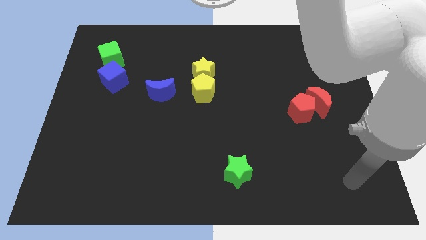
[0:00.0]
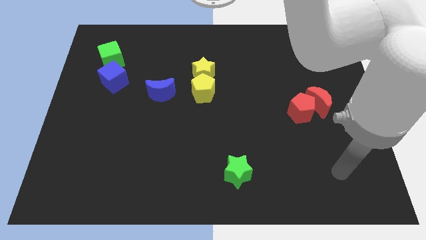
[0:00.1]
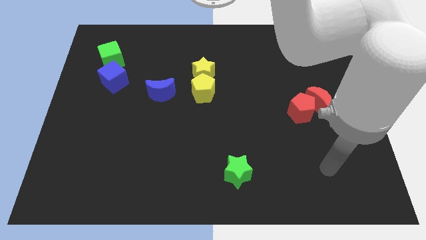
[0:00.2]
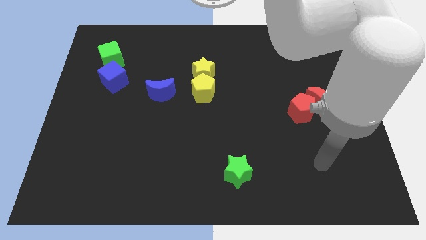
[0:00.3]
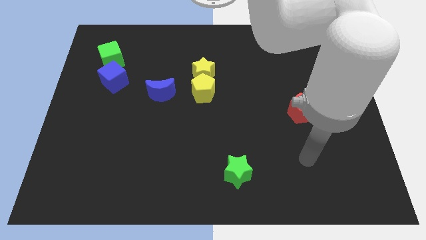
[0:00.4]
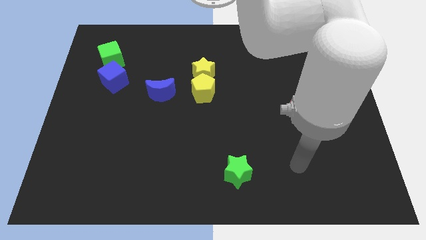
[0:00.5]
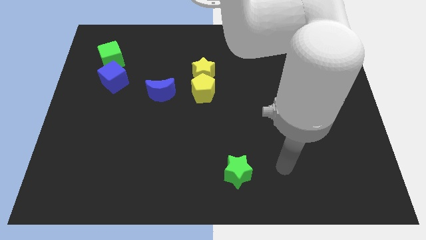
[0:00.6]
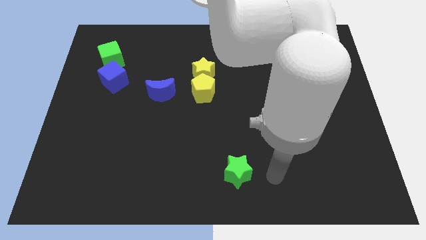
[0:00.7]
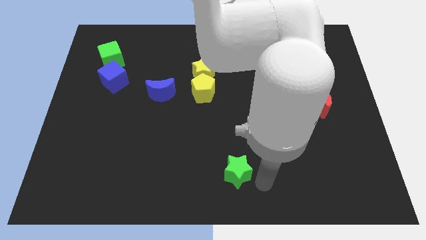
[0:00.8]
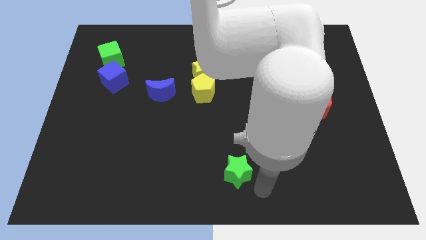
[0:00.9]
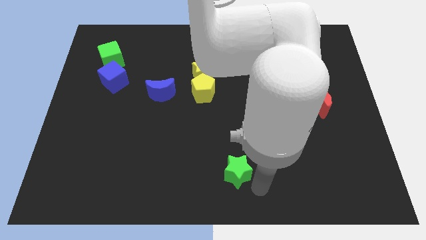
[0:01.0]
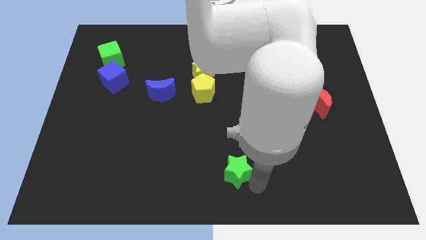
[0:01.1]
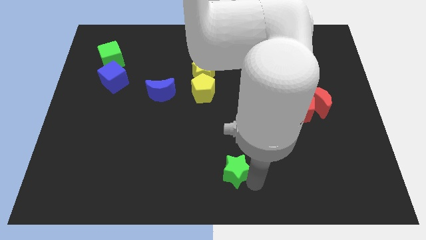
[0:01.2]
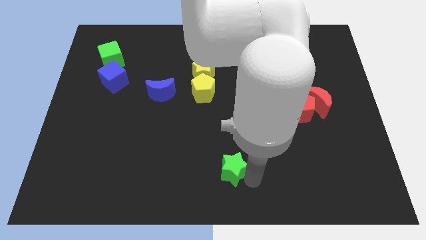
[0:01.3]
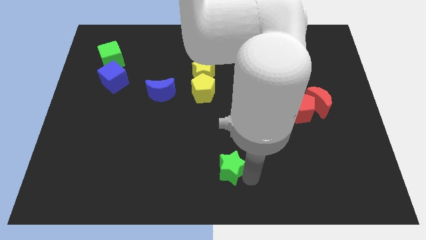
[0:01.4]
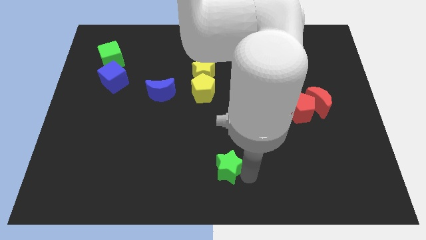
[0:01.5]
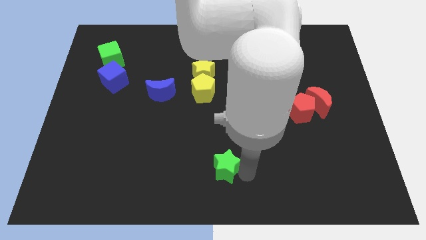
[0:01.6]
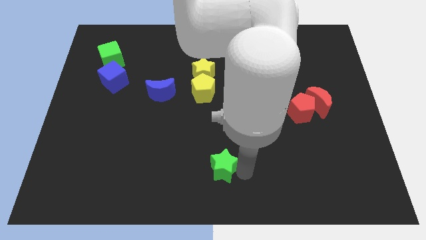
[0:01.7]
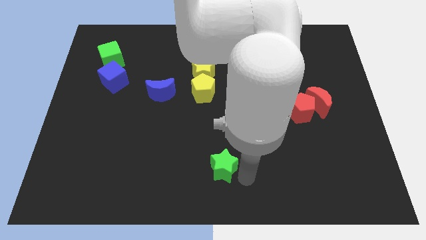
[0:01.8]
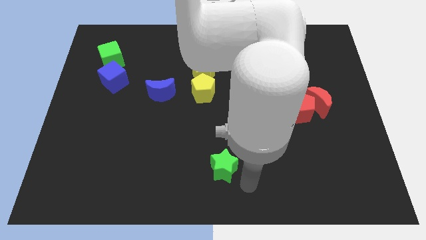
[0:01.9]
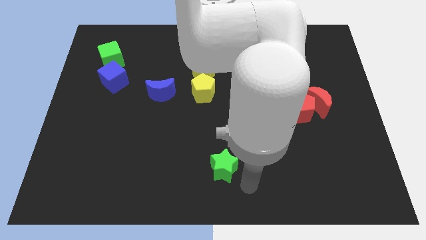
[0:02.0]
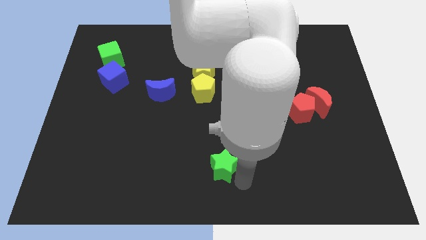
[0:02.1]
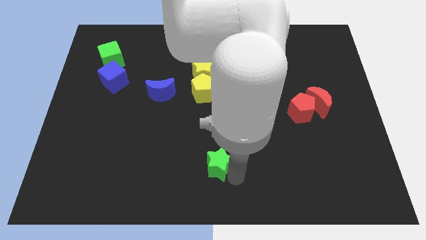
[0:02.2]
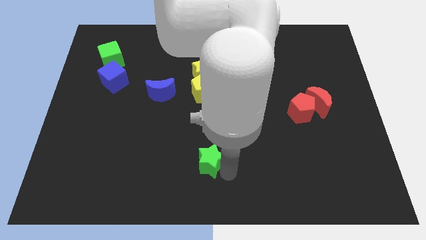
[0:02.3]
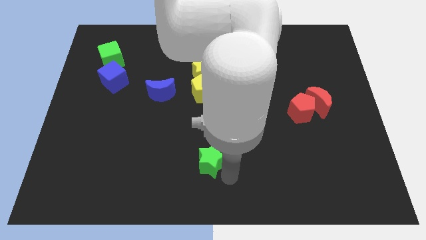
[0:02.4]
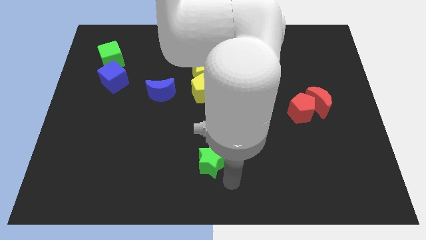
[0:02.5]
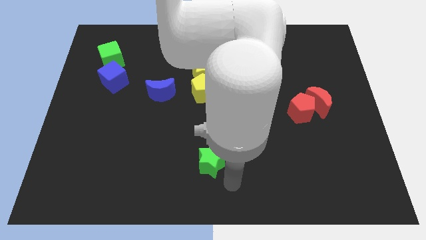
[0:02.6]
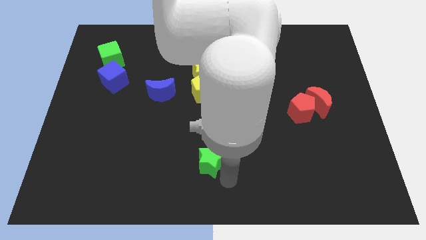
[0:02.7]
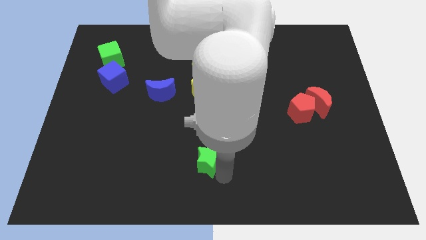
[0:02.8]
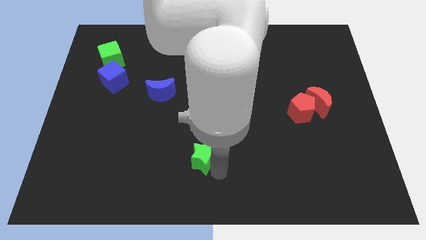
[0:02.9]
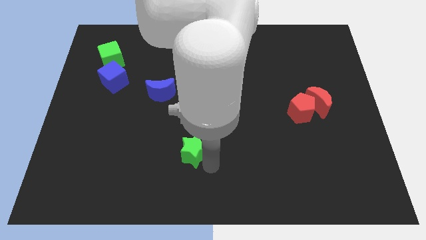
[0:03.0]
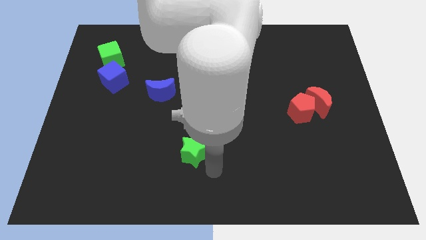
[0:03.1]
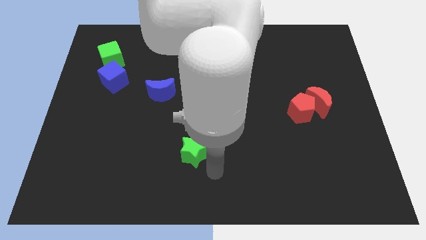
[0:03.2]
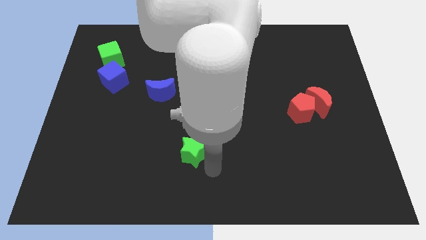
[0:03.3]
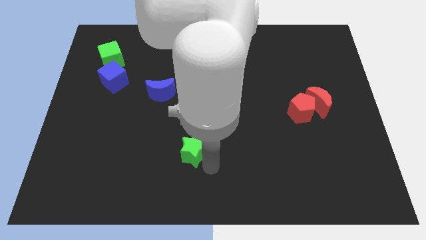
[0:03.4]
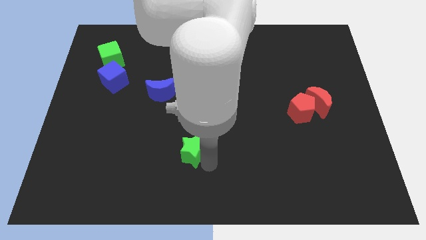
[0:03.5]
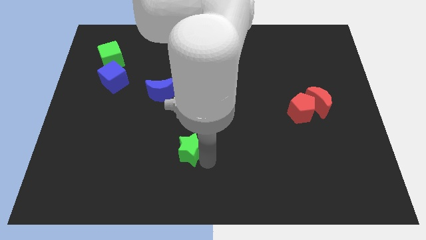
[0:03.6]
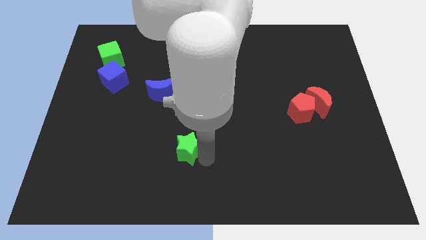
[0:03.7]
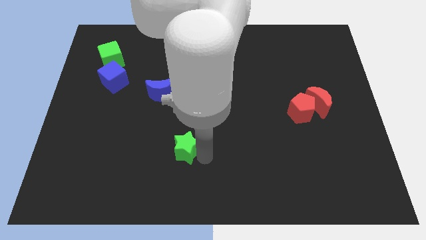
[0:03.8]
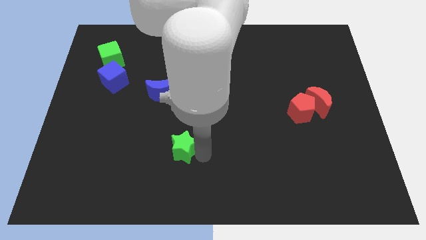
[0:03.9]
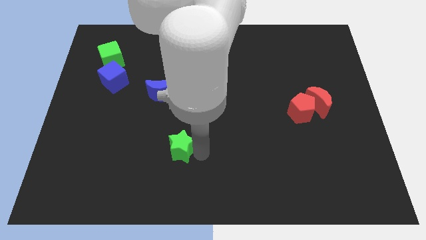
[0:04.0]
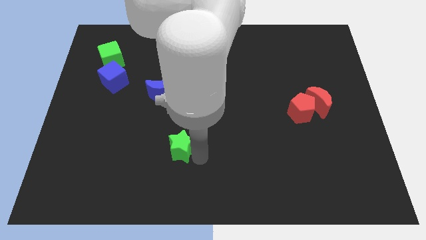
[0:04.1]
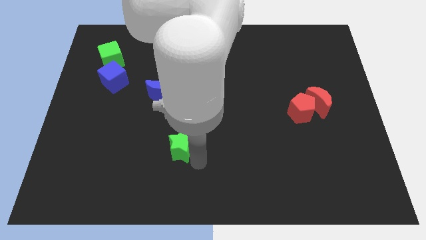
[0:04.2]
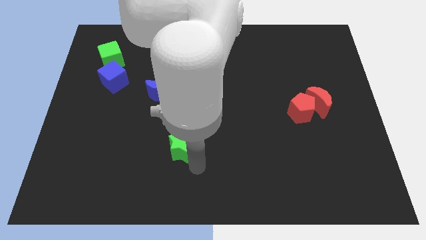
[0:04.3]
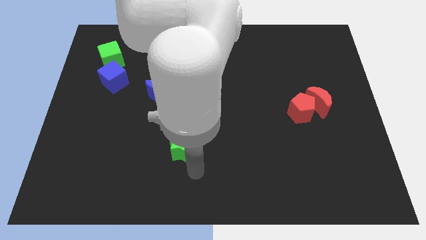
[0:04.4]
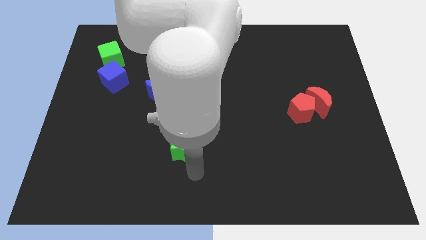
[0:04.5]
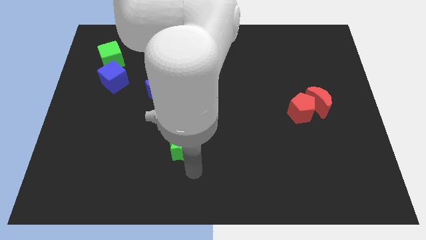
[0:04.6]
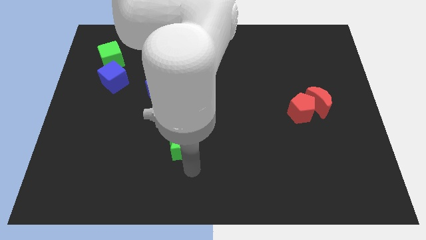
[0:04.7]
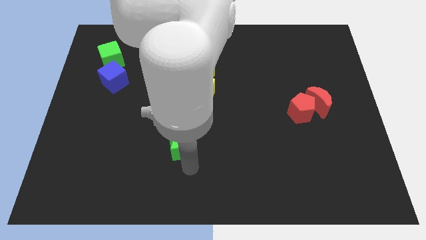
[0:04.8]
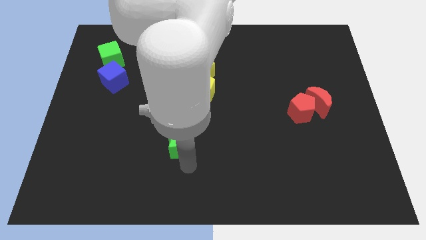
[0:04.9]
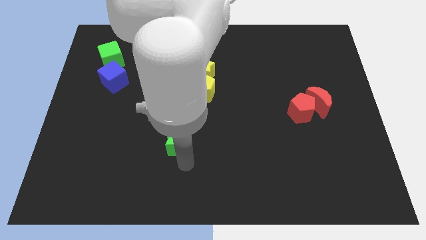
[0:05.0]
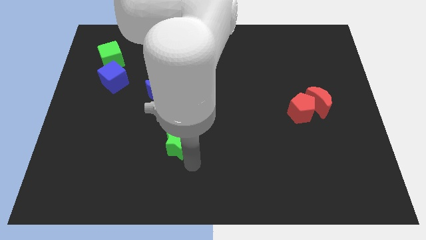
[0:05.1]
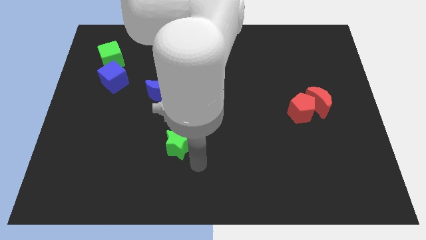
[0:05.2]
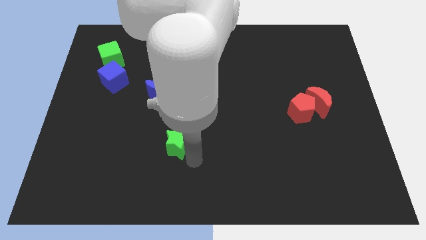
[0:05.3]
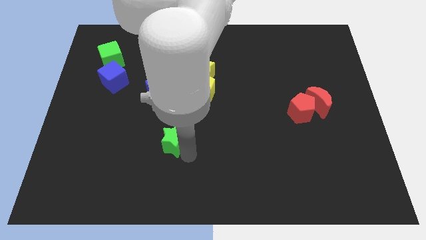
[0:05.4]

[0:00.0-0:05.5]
move the green star to the bottom of the blue moon

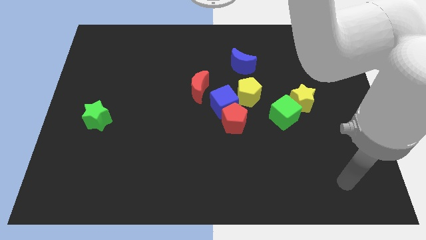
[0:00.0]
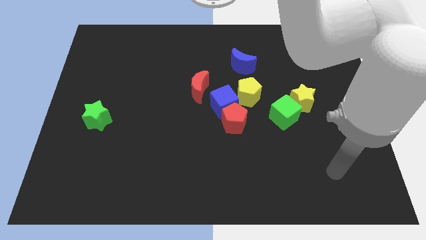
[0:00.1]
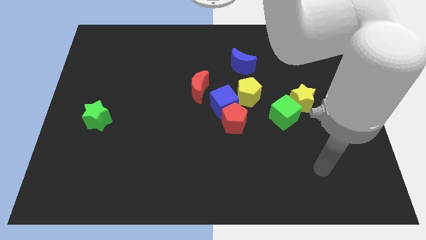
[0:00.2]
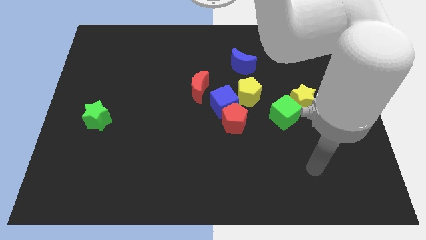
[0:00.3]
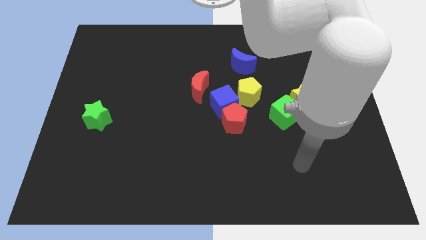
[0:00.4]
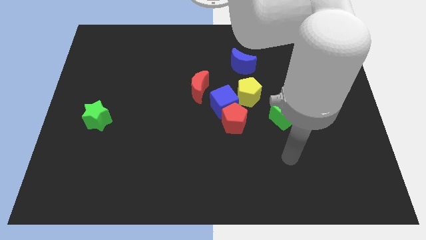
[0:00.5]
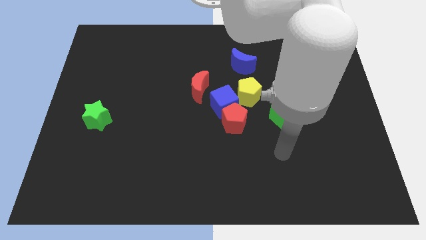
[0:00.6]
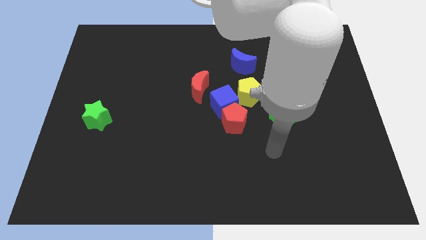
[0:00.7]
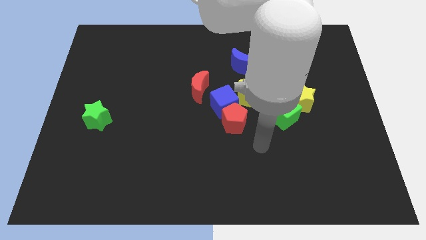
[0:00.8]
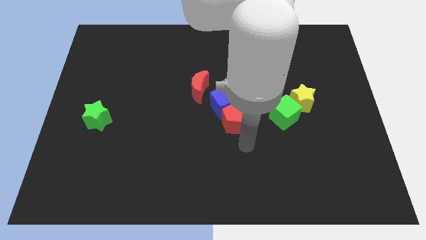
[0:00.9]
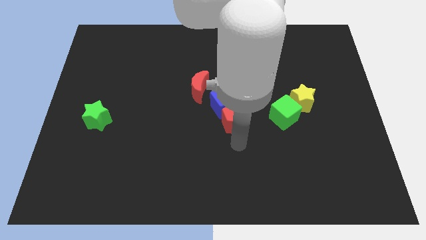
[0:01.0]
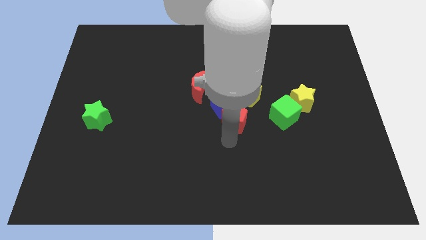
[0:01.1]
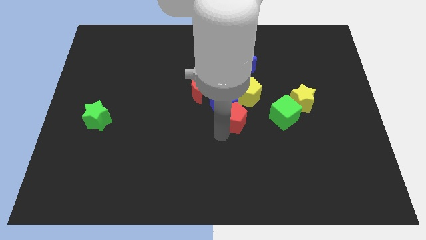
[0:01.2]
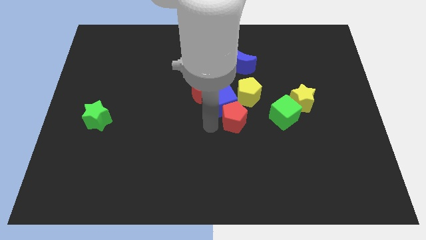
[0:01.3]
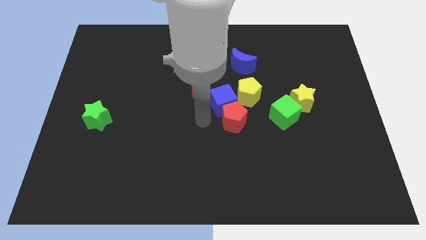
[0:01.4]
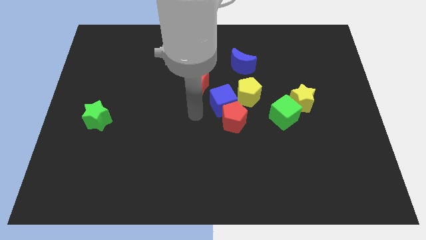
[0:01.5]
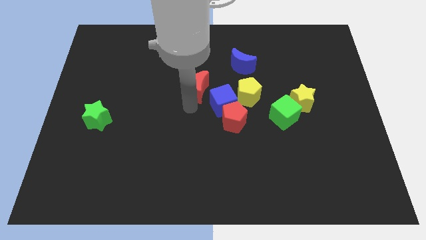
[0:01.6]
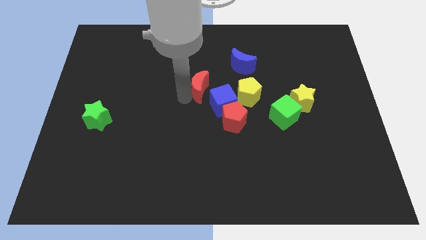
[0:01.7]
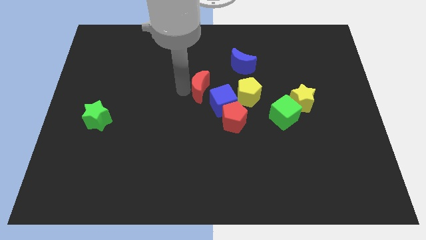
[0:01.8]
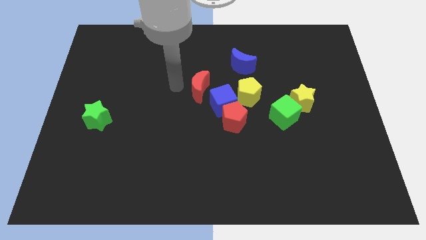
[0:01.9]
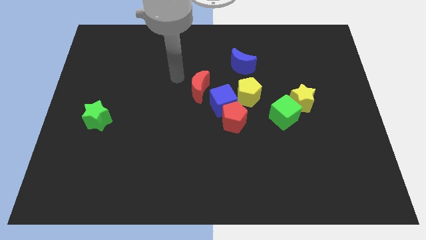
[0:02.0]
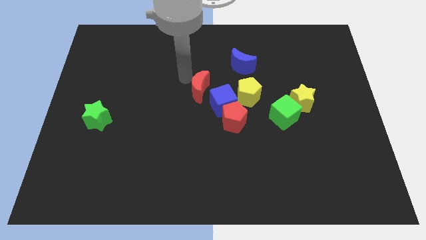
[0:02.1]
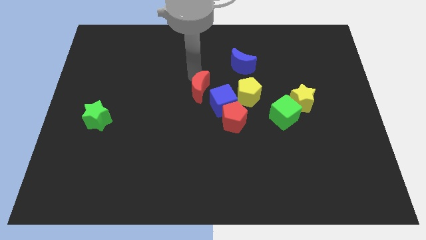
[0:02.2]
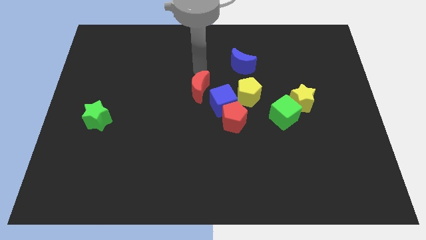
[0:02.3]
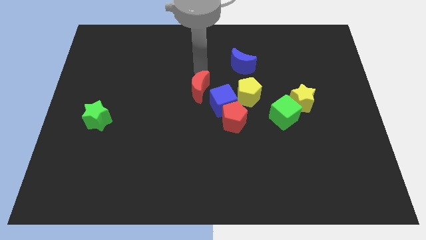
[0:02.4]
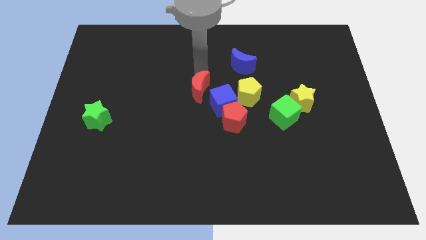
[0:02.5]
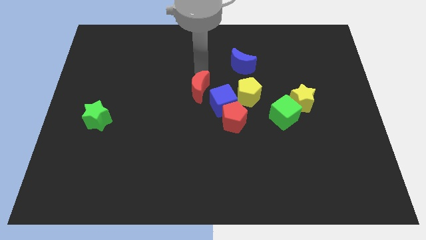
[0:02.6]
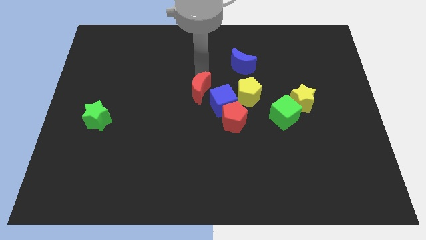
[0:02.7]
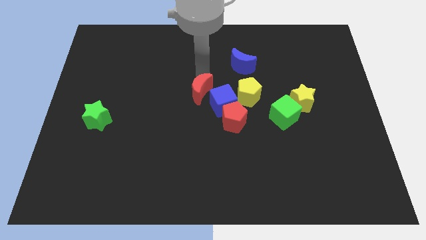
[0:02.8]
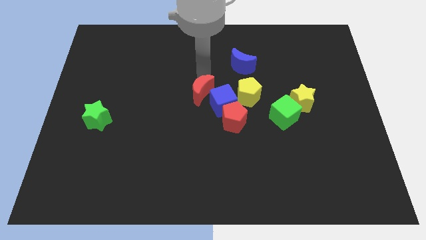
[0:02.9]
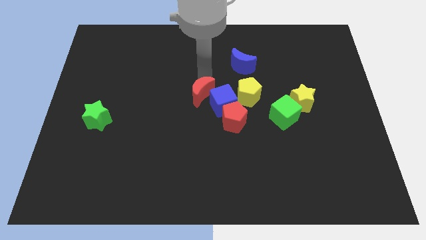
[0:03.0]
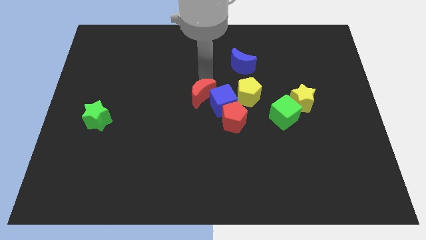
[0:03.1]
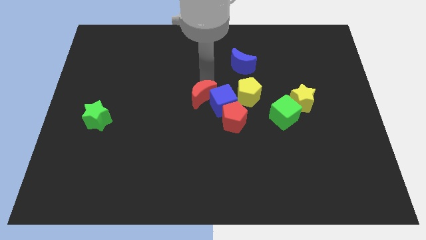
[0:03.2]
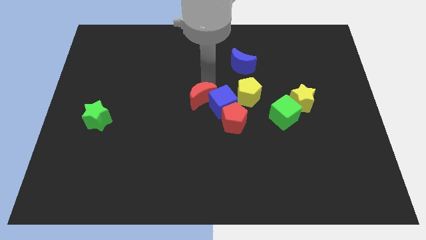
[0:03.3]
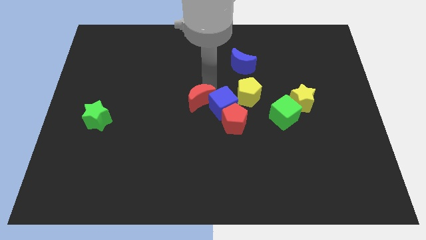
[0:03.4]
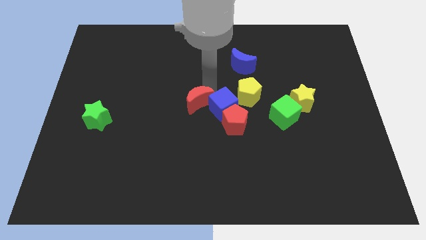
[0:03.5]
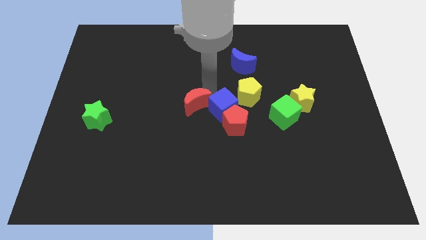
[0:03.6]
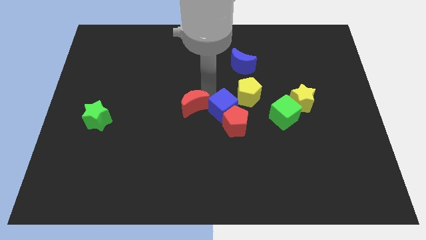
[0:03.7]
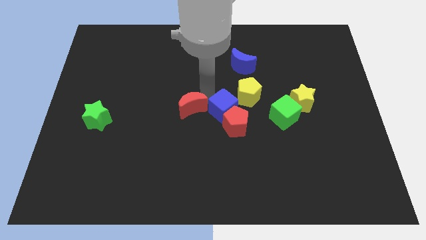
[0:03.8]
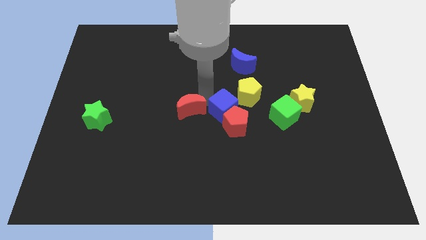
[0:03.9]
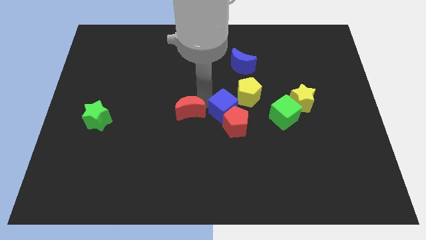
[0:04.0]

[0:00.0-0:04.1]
put the red moon to the bottom left side of the blue cube
